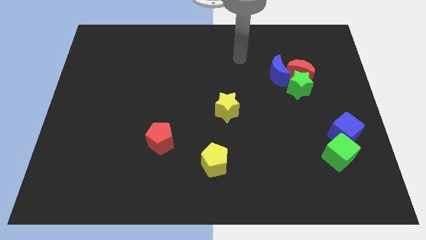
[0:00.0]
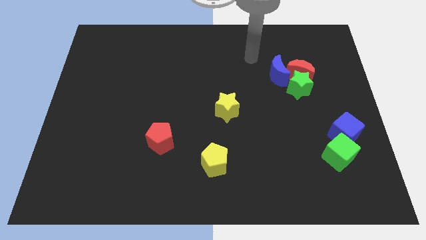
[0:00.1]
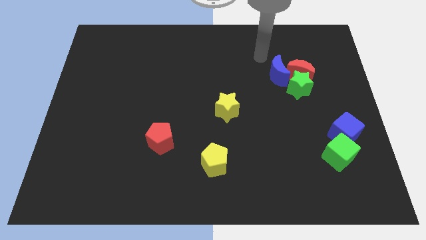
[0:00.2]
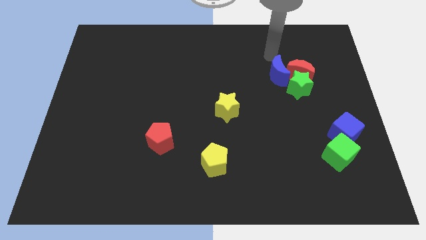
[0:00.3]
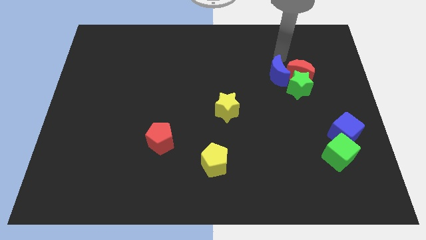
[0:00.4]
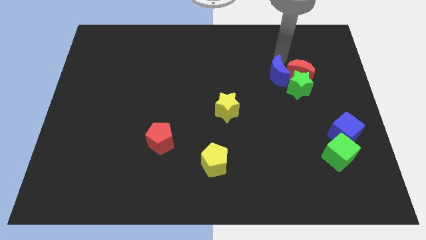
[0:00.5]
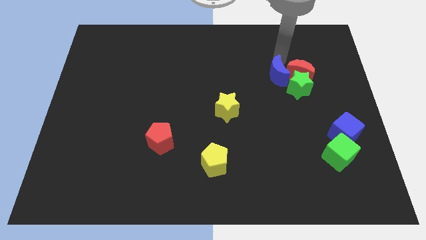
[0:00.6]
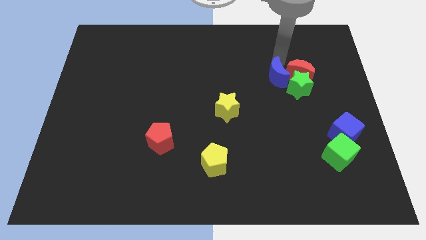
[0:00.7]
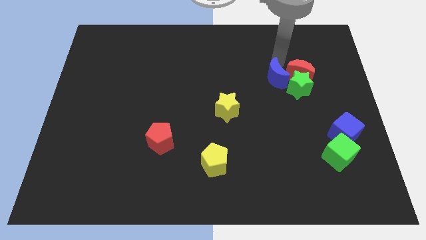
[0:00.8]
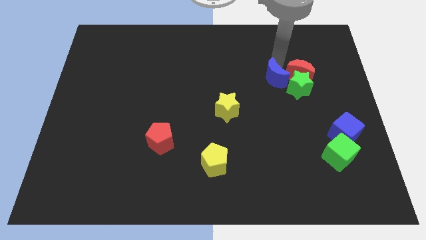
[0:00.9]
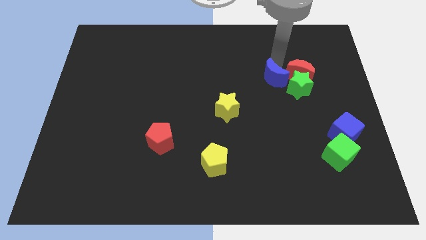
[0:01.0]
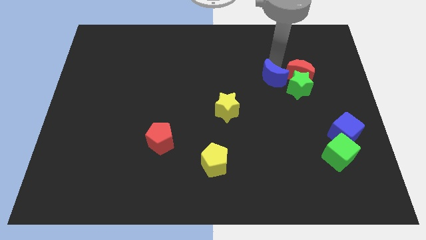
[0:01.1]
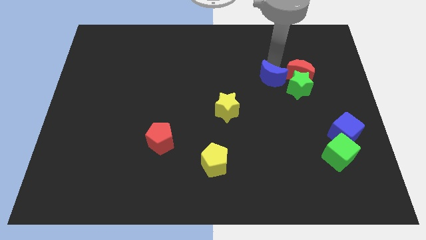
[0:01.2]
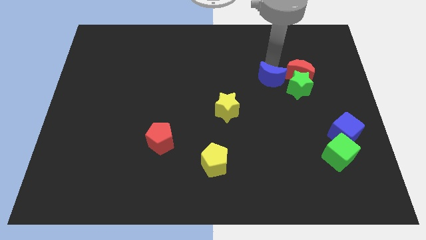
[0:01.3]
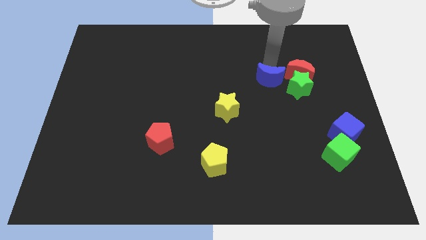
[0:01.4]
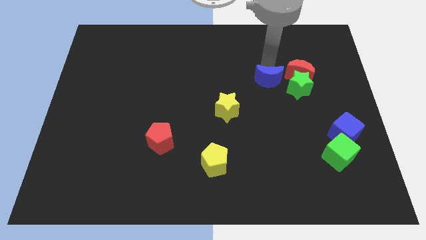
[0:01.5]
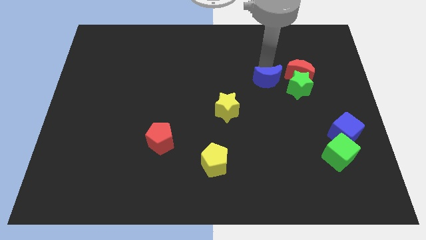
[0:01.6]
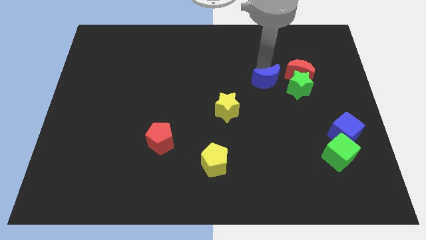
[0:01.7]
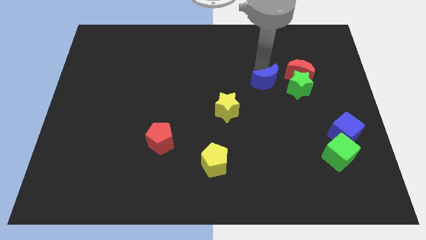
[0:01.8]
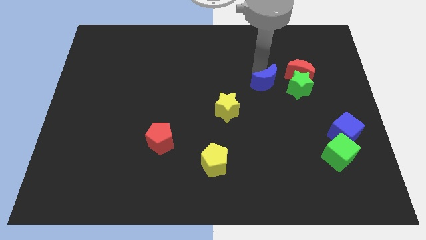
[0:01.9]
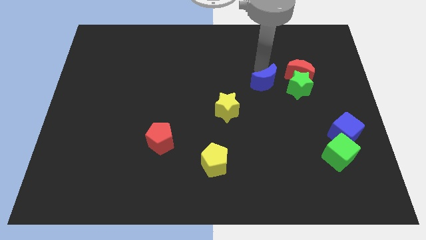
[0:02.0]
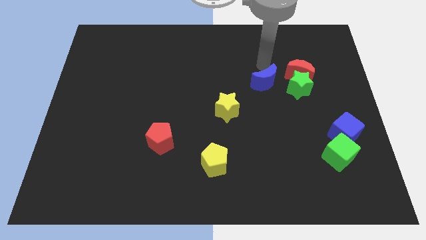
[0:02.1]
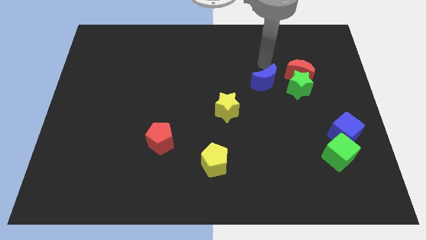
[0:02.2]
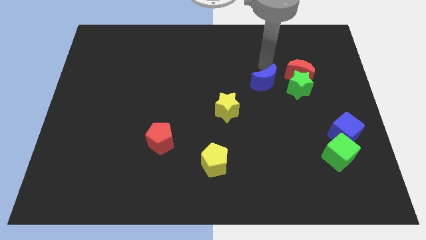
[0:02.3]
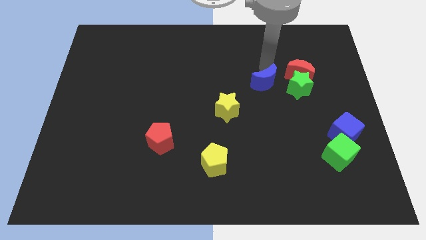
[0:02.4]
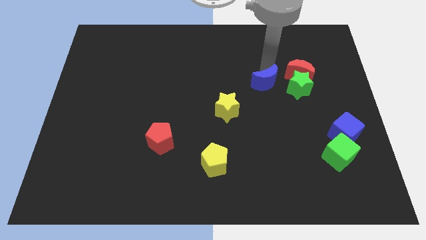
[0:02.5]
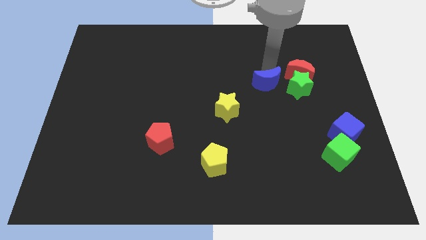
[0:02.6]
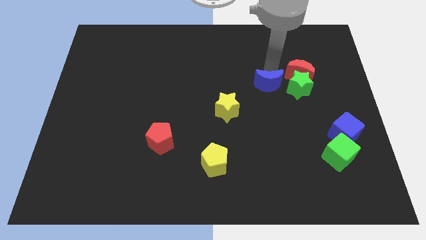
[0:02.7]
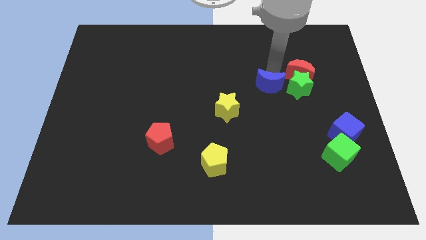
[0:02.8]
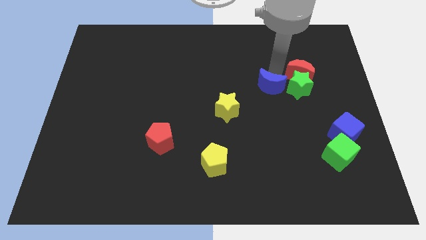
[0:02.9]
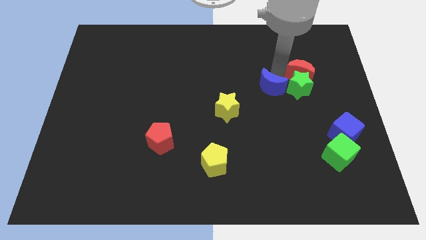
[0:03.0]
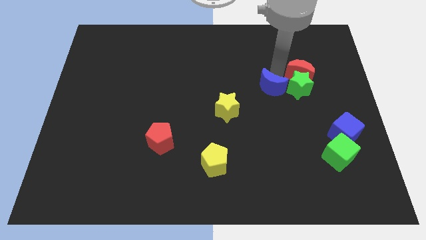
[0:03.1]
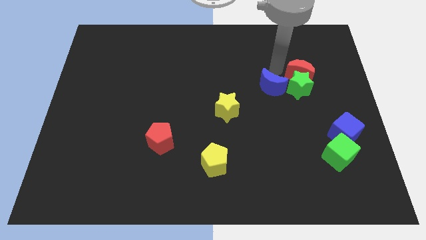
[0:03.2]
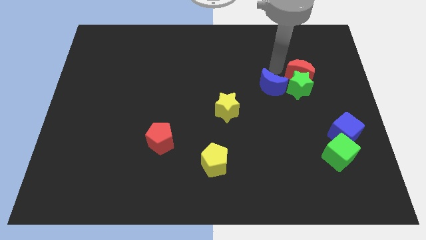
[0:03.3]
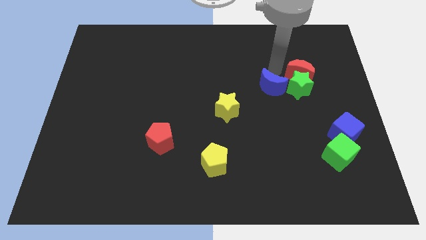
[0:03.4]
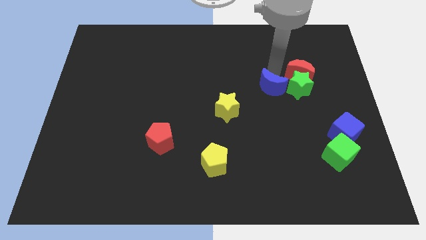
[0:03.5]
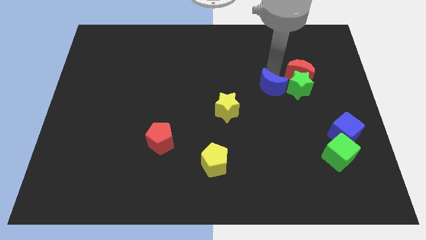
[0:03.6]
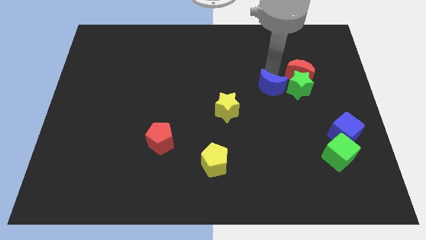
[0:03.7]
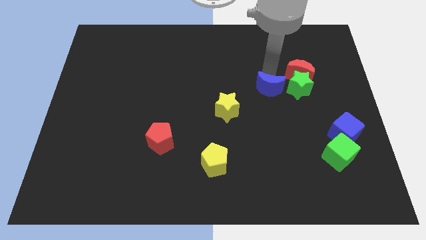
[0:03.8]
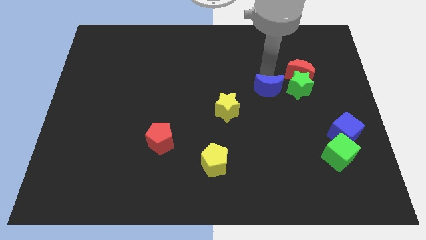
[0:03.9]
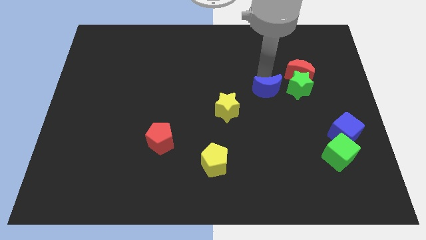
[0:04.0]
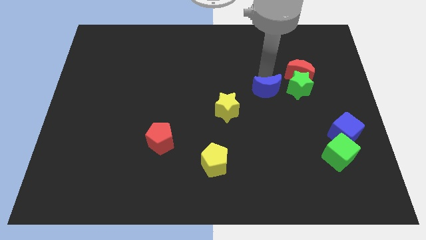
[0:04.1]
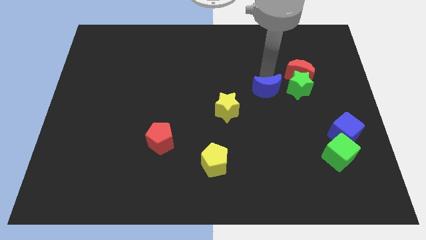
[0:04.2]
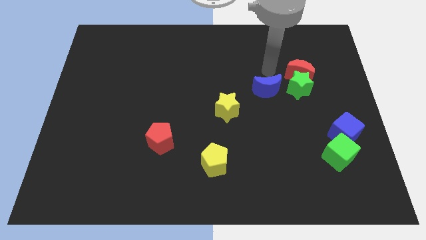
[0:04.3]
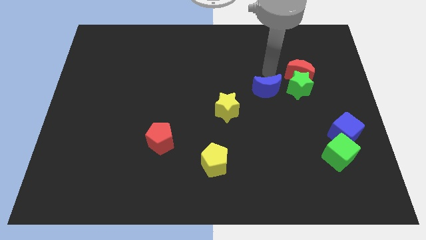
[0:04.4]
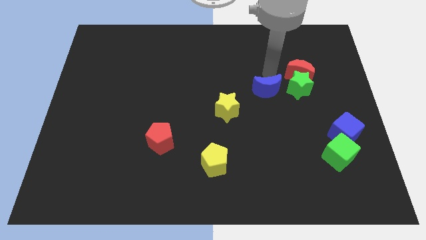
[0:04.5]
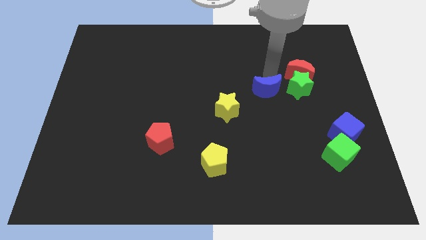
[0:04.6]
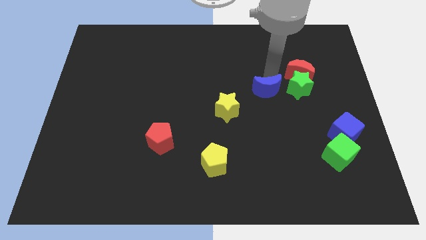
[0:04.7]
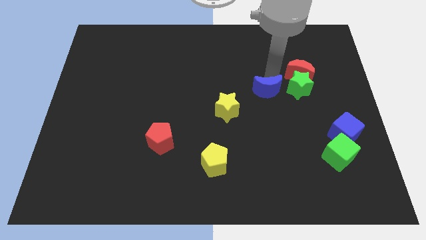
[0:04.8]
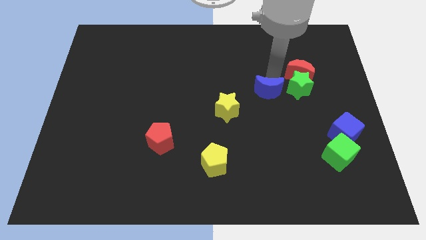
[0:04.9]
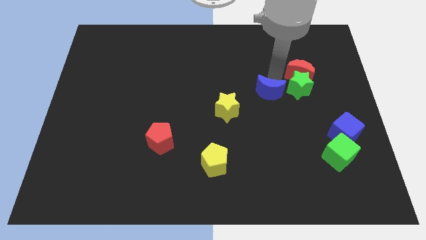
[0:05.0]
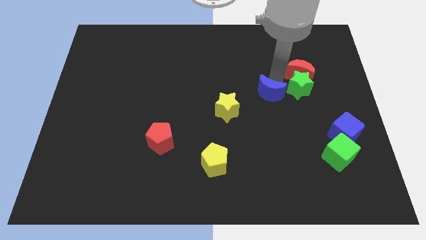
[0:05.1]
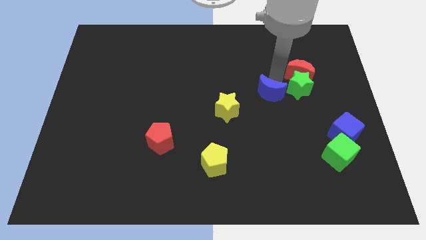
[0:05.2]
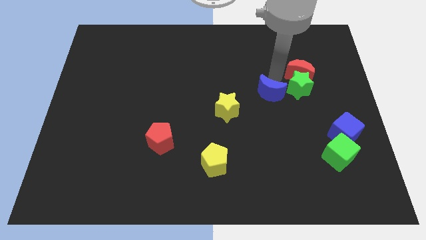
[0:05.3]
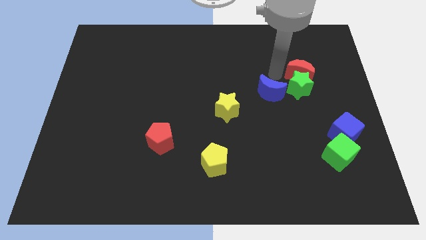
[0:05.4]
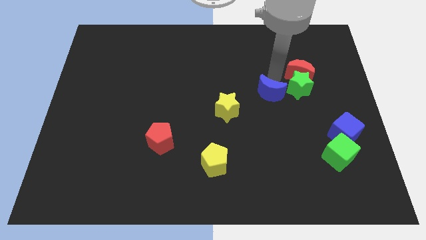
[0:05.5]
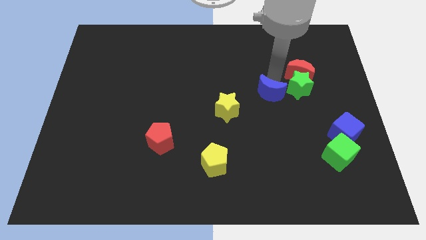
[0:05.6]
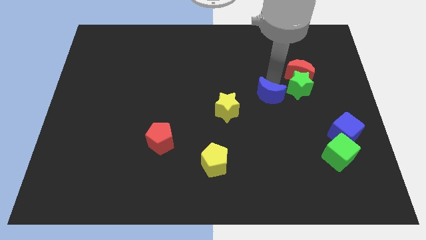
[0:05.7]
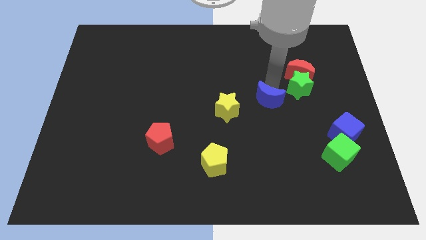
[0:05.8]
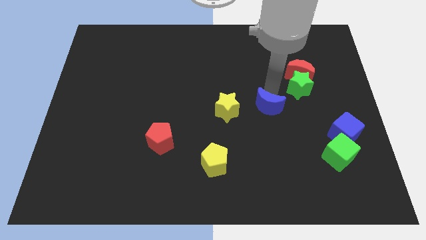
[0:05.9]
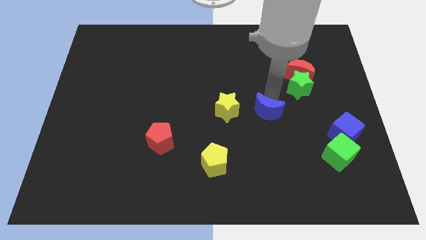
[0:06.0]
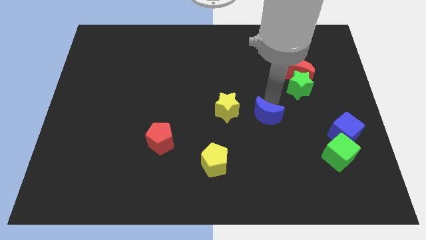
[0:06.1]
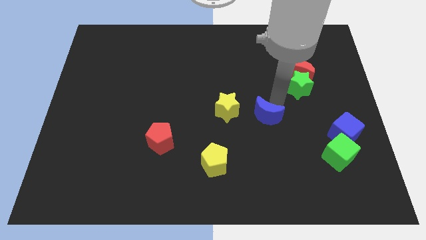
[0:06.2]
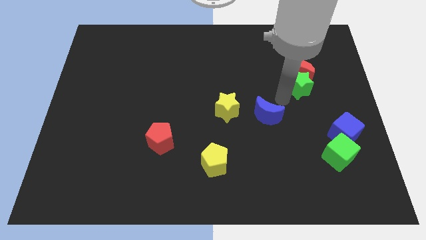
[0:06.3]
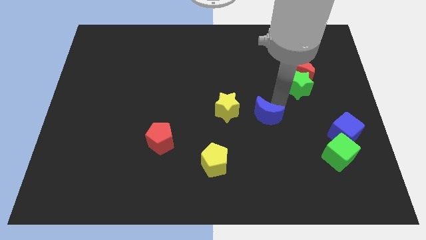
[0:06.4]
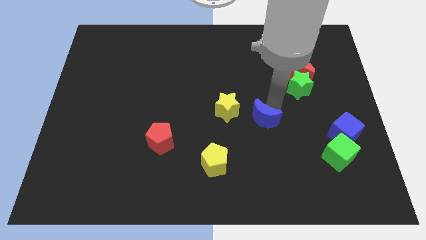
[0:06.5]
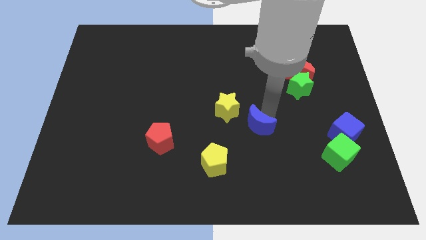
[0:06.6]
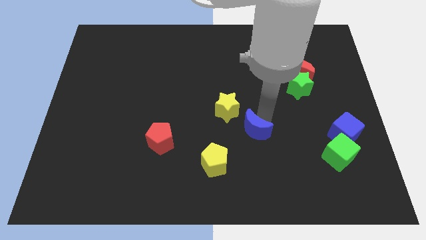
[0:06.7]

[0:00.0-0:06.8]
move the blue moon to the top right of the yellow pentagon

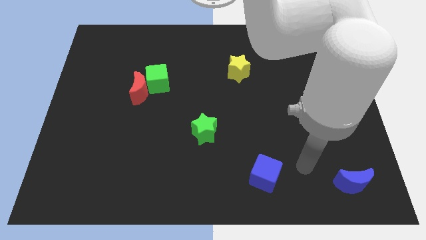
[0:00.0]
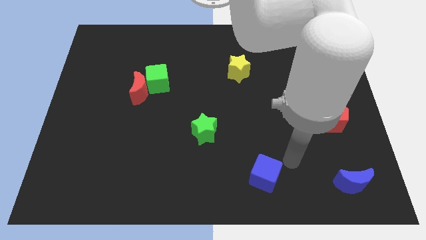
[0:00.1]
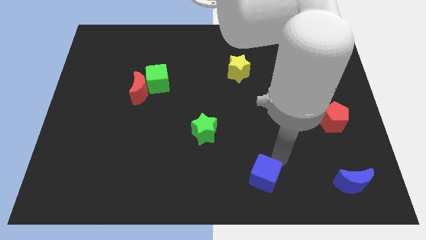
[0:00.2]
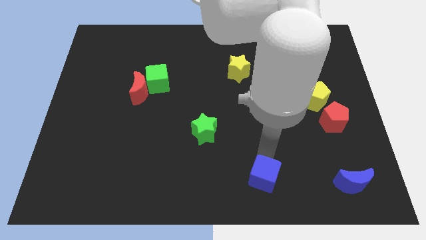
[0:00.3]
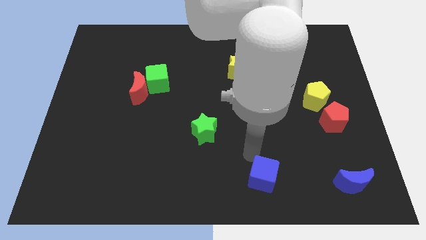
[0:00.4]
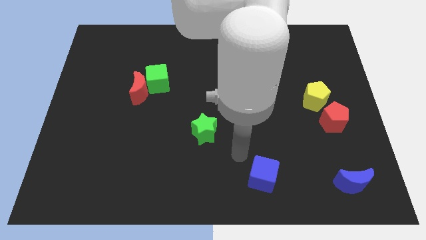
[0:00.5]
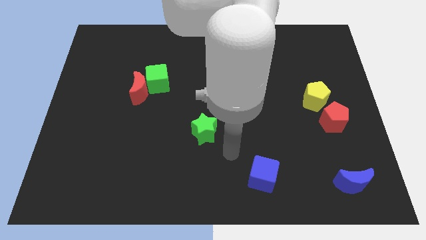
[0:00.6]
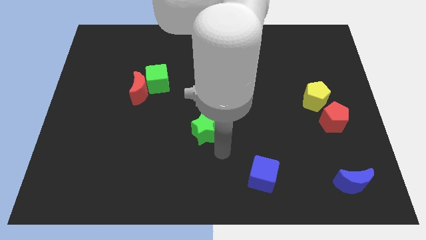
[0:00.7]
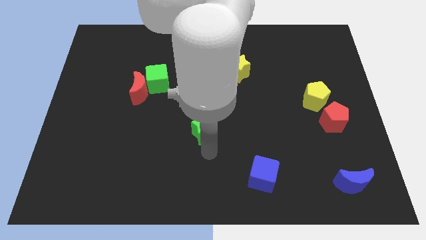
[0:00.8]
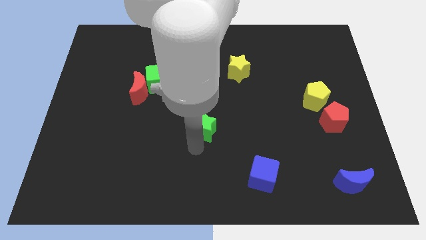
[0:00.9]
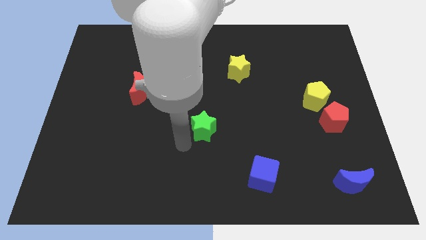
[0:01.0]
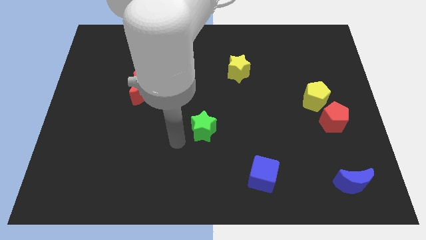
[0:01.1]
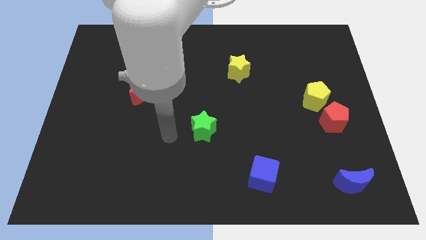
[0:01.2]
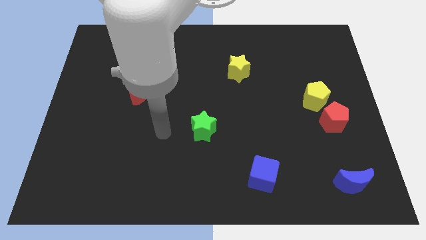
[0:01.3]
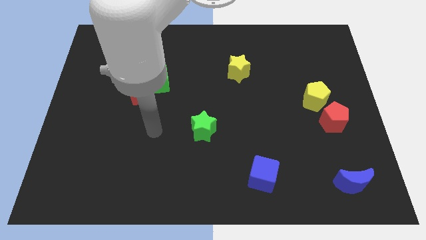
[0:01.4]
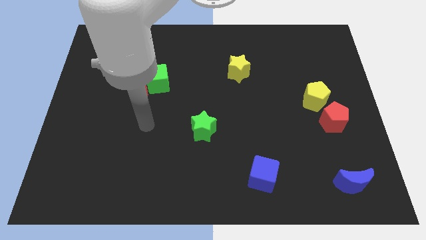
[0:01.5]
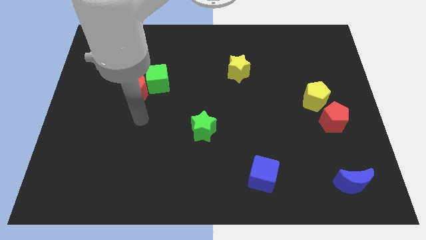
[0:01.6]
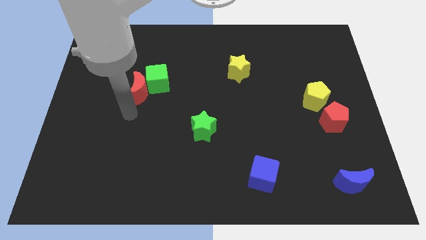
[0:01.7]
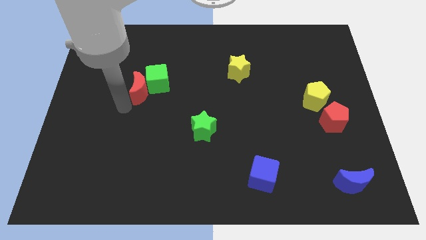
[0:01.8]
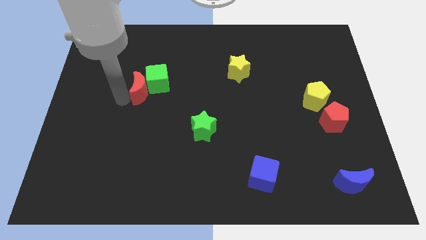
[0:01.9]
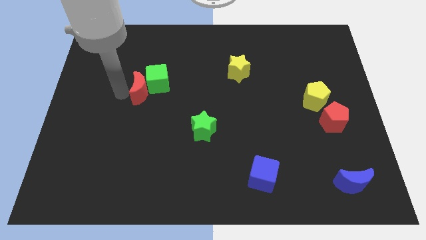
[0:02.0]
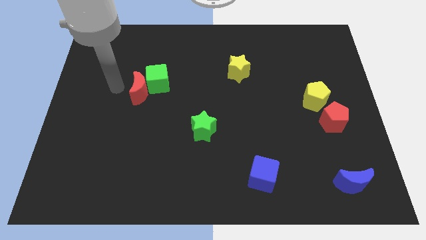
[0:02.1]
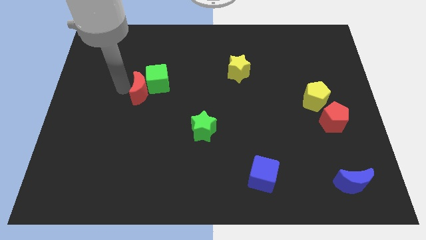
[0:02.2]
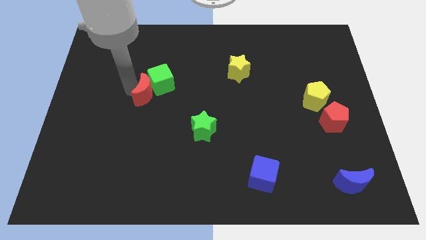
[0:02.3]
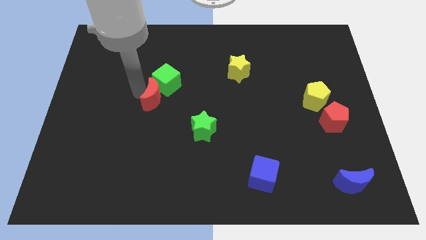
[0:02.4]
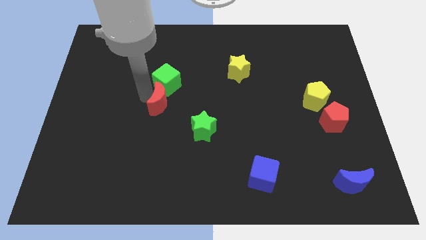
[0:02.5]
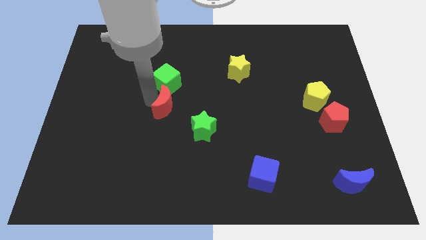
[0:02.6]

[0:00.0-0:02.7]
put the red moon to the bottom right of the green cube
